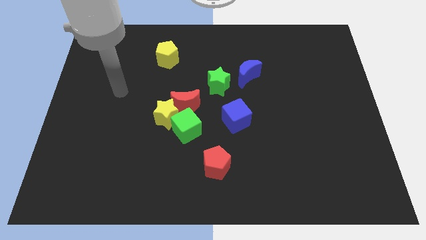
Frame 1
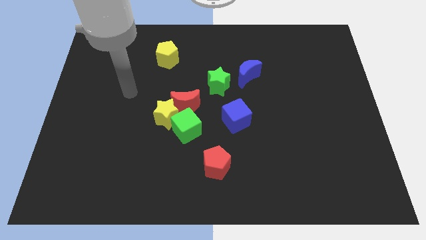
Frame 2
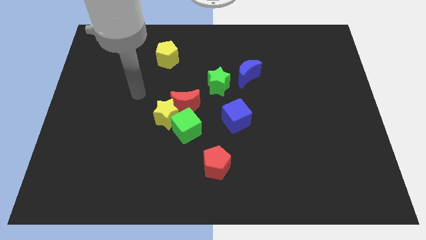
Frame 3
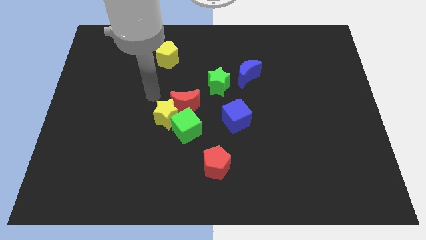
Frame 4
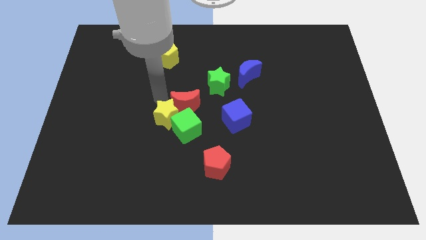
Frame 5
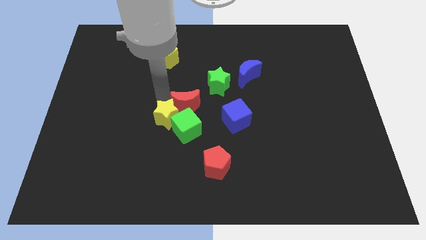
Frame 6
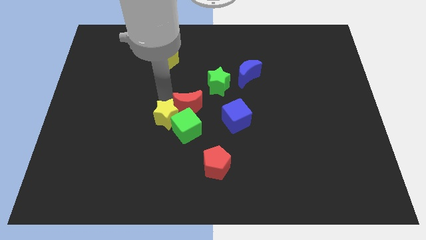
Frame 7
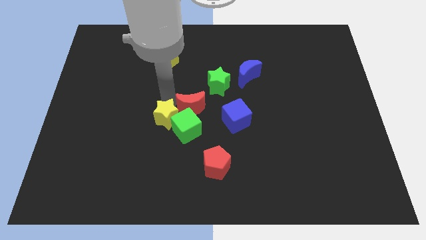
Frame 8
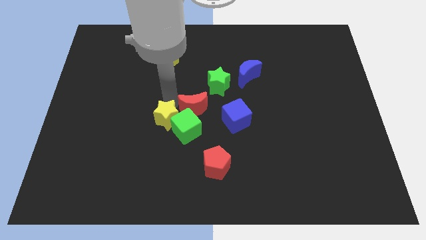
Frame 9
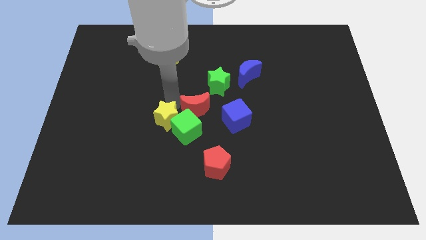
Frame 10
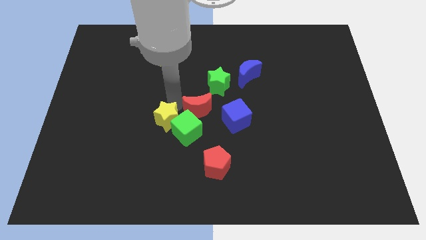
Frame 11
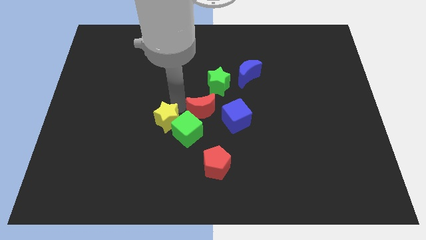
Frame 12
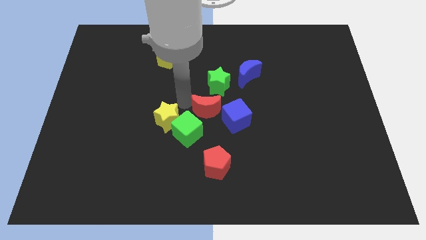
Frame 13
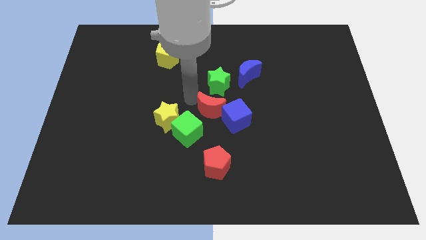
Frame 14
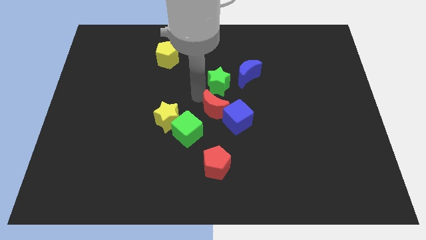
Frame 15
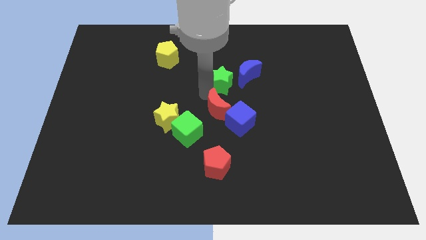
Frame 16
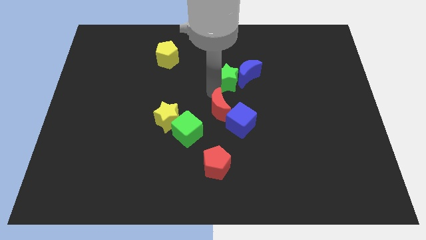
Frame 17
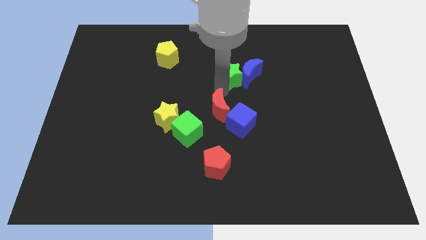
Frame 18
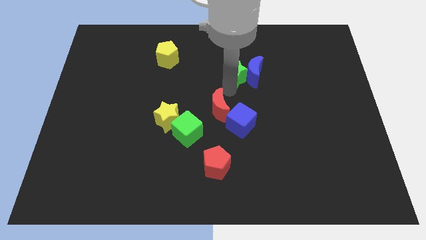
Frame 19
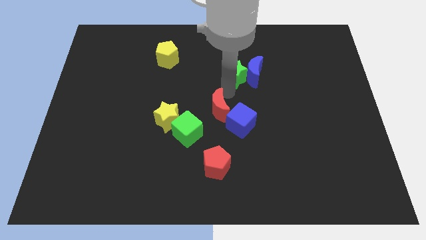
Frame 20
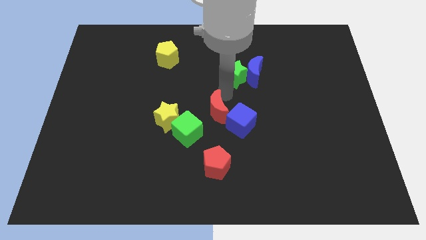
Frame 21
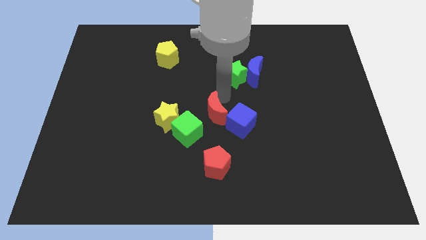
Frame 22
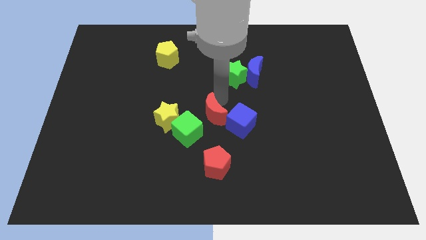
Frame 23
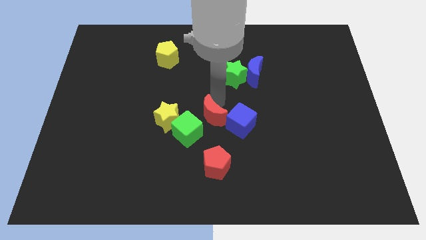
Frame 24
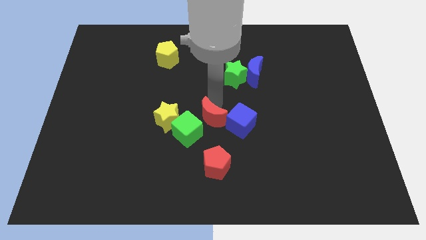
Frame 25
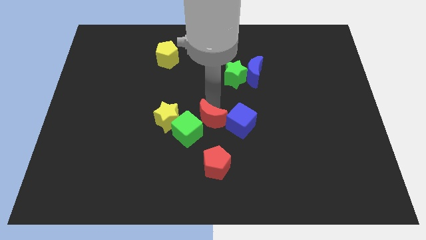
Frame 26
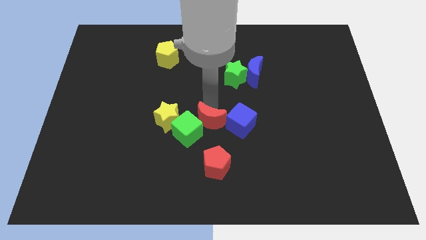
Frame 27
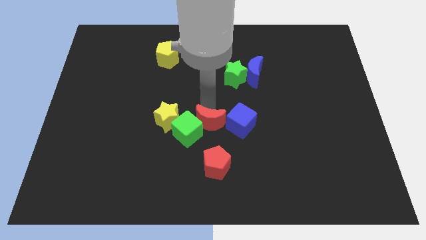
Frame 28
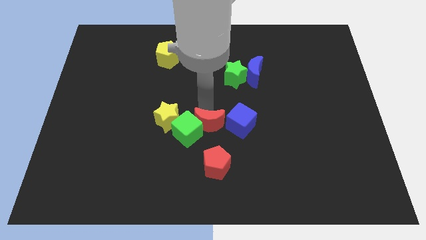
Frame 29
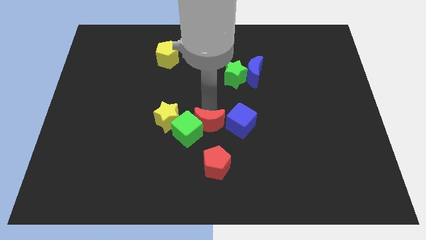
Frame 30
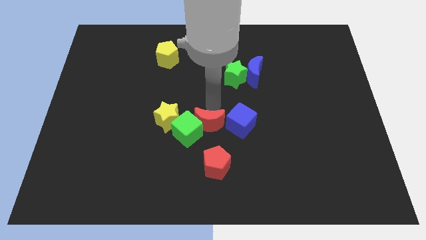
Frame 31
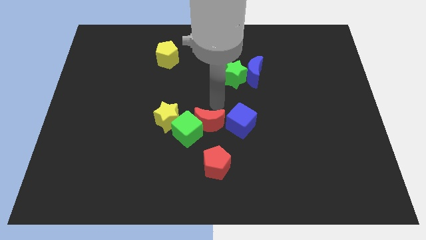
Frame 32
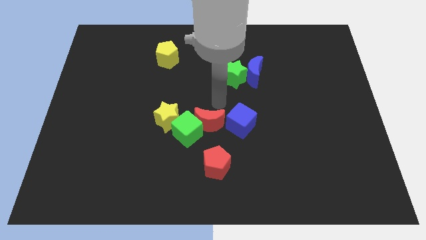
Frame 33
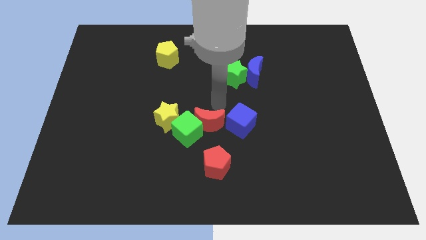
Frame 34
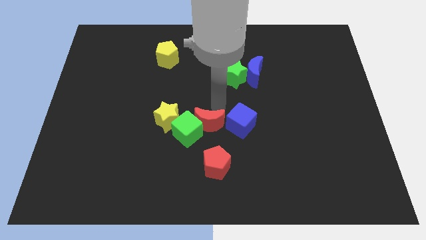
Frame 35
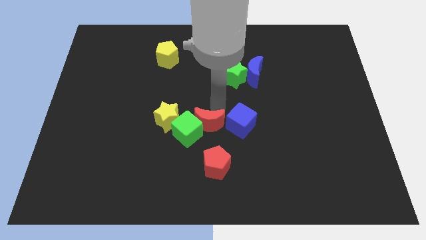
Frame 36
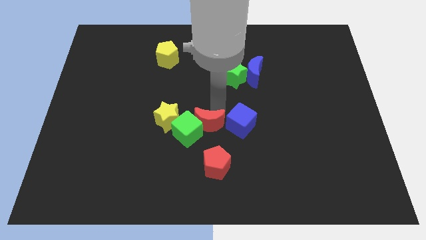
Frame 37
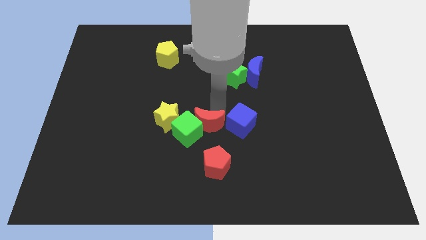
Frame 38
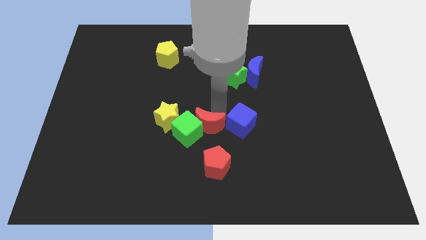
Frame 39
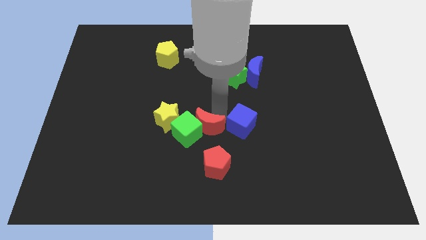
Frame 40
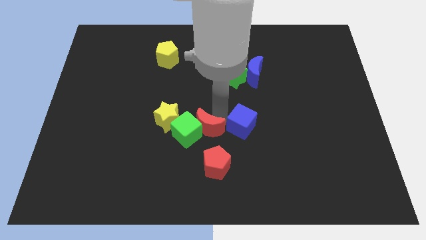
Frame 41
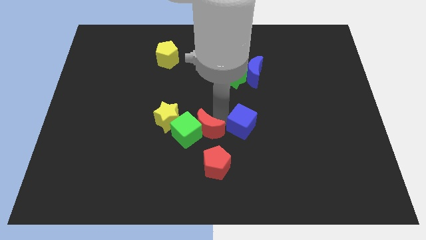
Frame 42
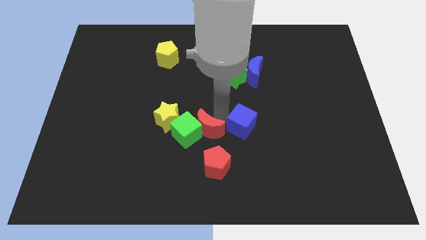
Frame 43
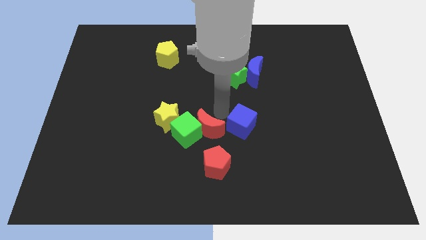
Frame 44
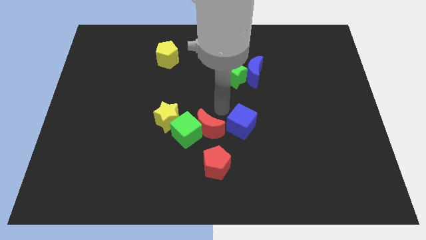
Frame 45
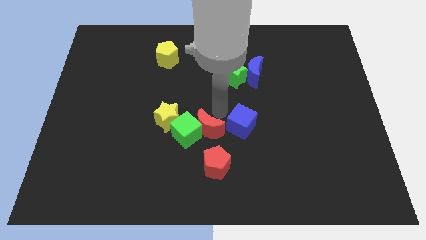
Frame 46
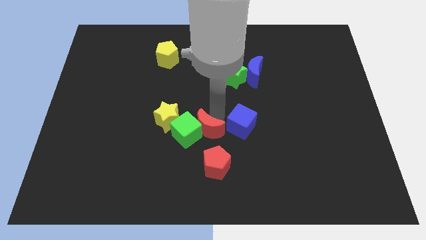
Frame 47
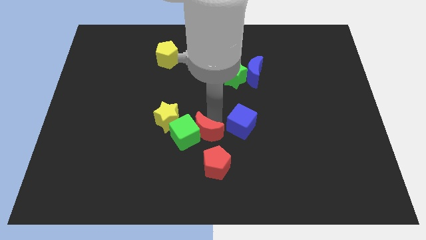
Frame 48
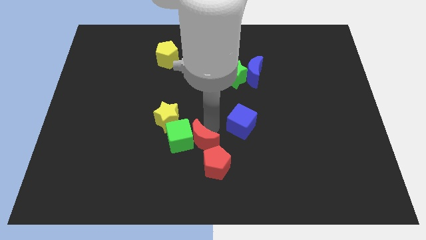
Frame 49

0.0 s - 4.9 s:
slightly move the red moon downwards

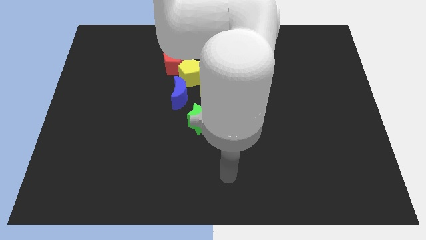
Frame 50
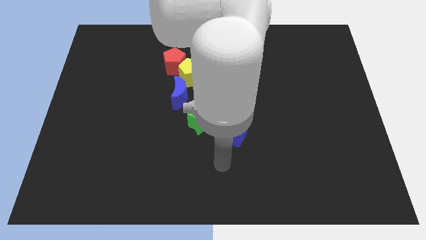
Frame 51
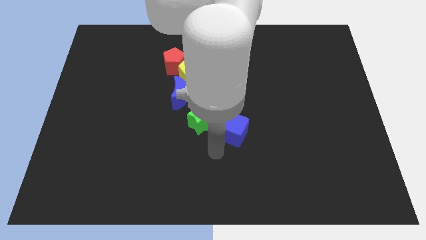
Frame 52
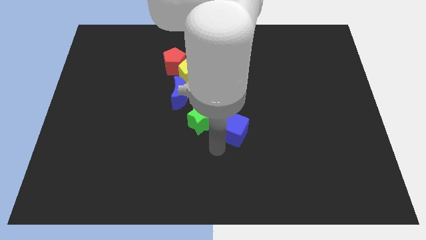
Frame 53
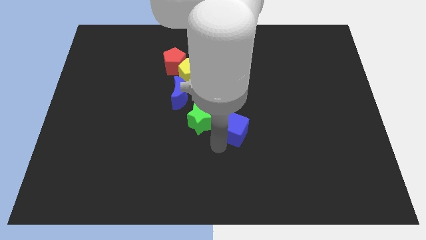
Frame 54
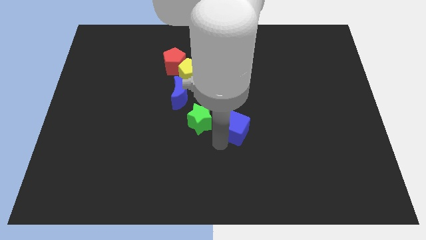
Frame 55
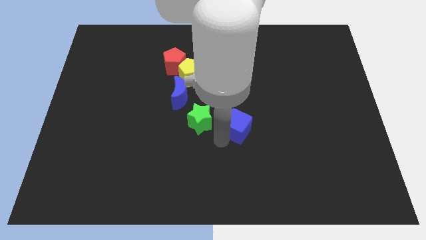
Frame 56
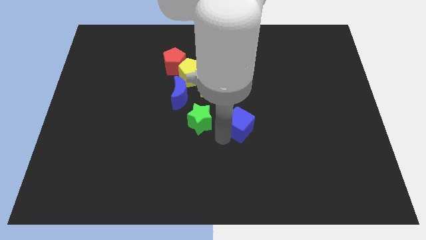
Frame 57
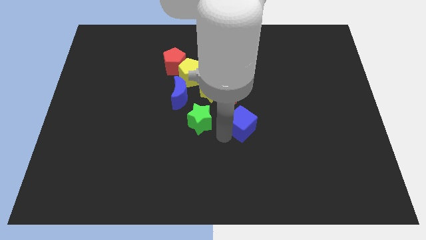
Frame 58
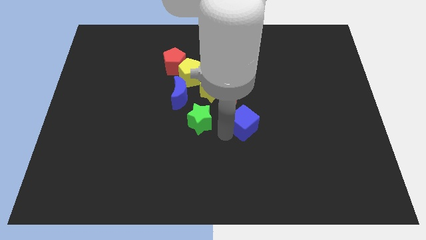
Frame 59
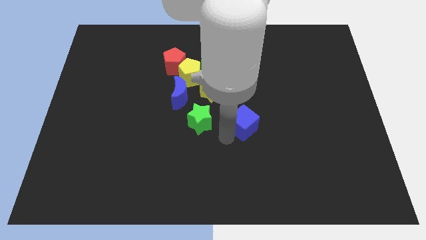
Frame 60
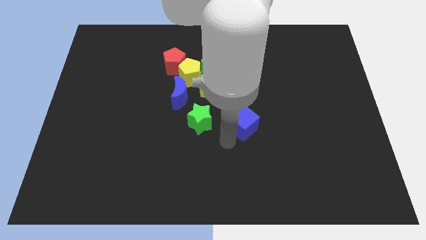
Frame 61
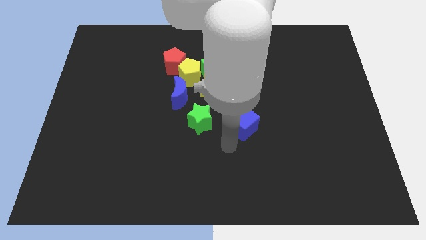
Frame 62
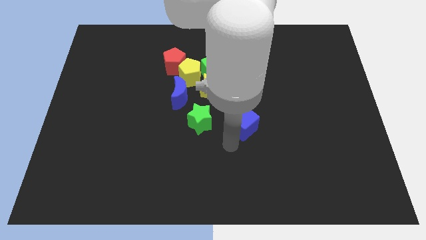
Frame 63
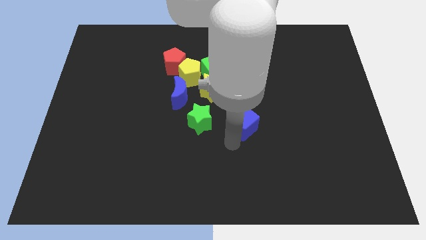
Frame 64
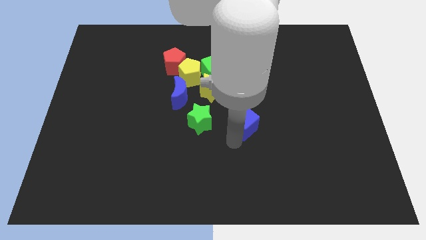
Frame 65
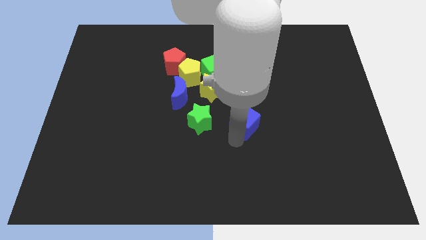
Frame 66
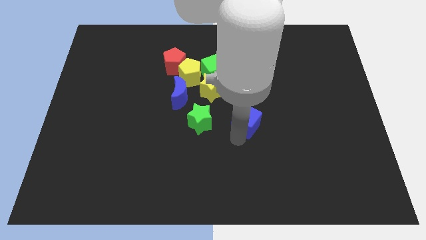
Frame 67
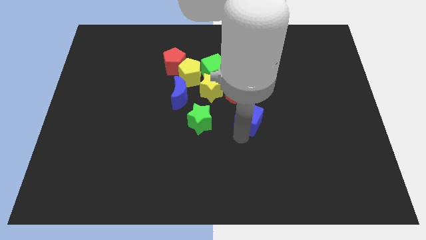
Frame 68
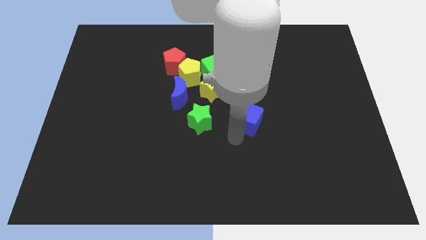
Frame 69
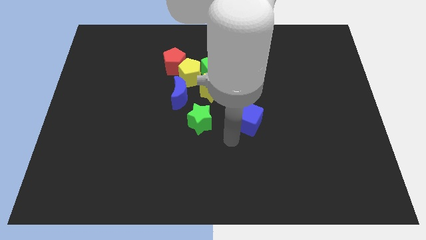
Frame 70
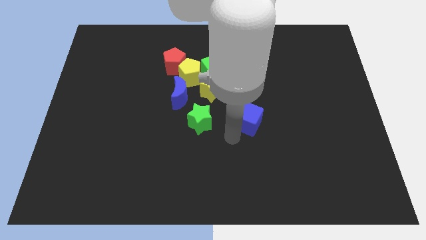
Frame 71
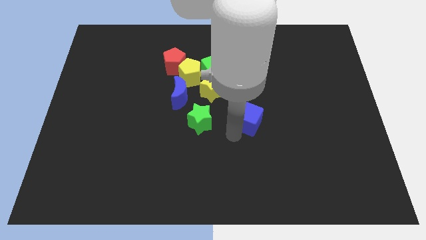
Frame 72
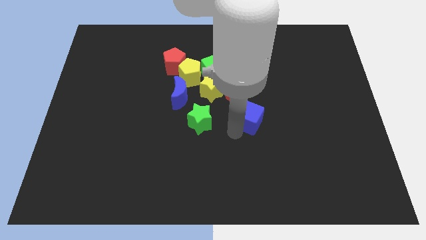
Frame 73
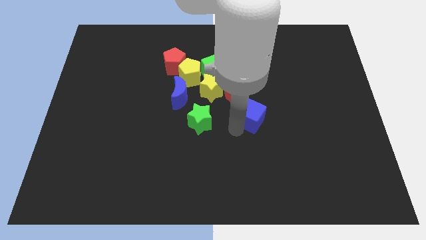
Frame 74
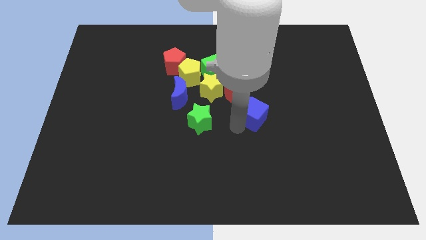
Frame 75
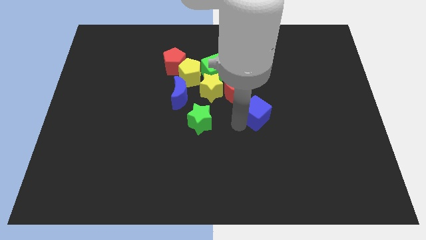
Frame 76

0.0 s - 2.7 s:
move the blue cube a little up and right diagonally

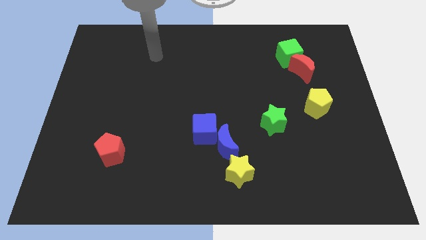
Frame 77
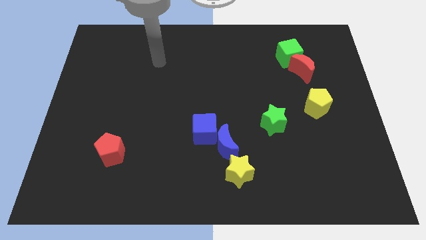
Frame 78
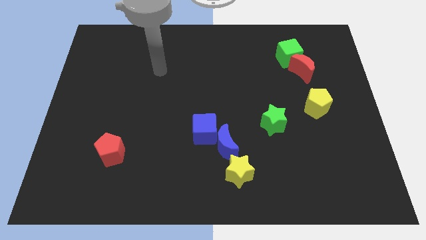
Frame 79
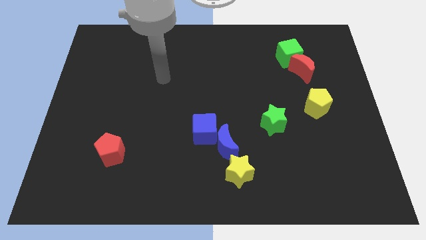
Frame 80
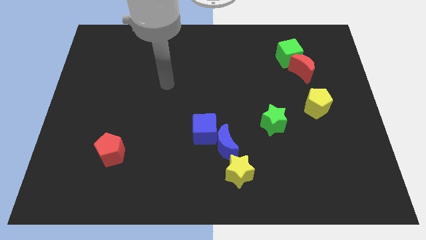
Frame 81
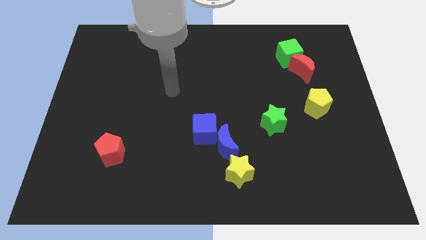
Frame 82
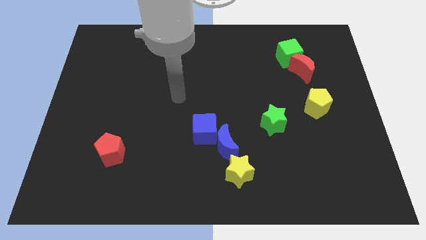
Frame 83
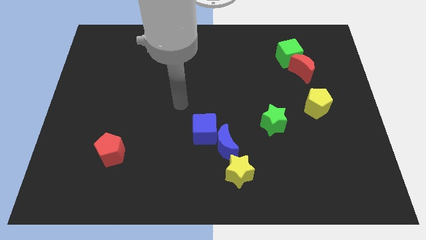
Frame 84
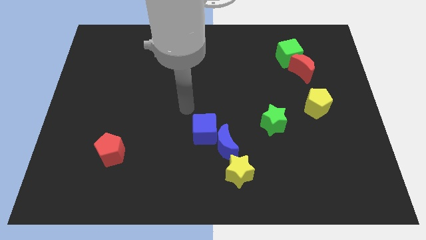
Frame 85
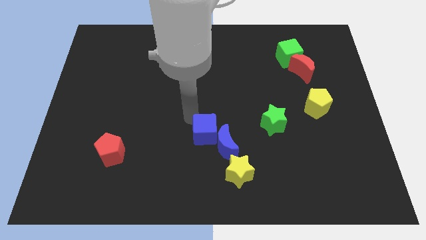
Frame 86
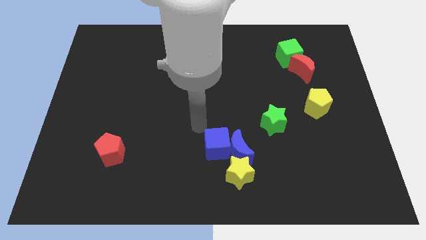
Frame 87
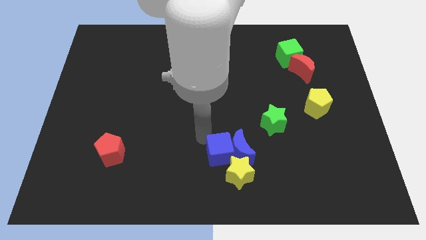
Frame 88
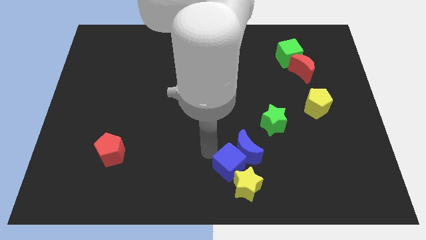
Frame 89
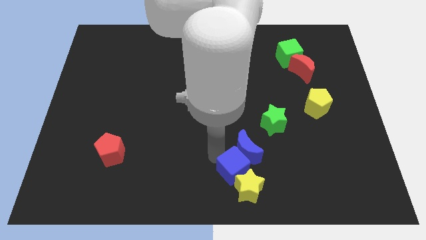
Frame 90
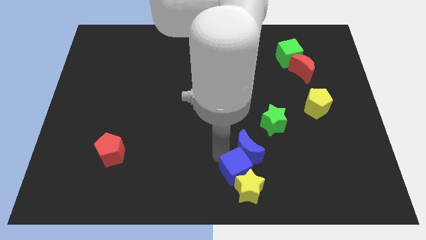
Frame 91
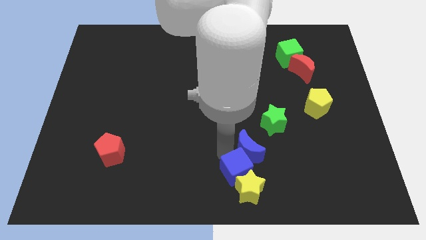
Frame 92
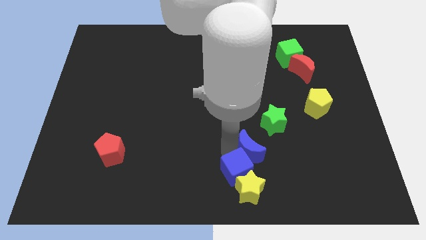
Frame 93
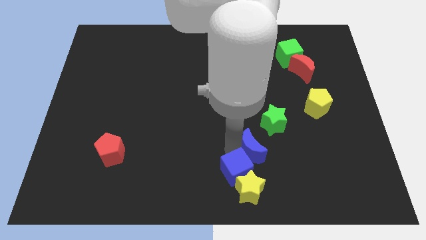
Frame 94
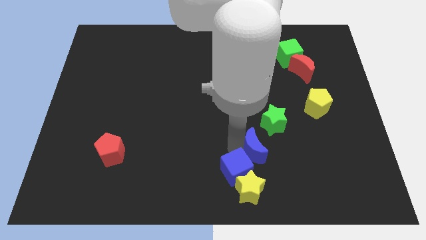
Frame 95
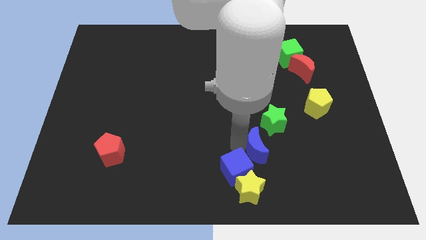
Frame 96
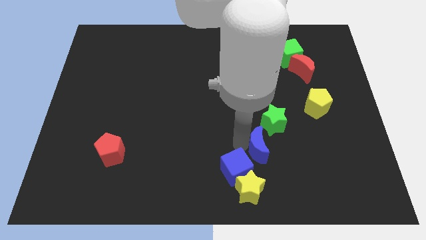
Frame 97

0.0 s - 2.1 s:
slightly push the blue moon right
